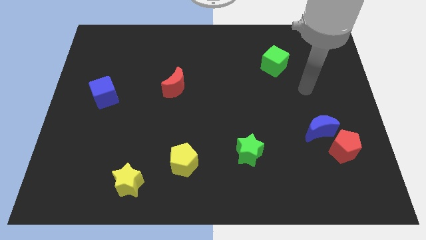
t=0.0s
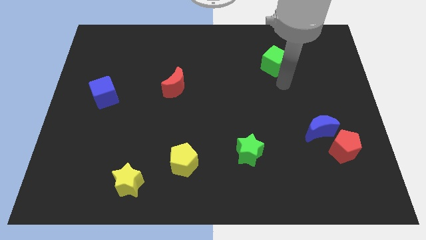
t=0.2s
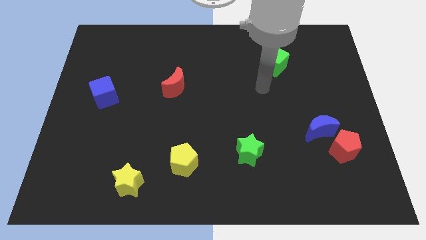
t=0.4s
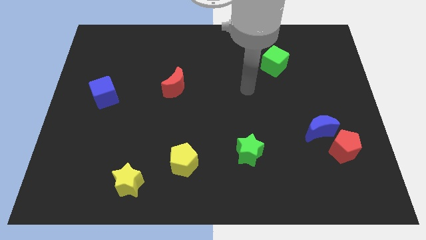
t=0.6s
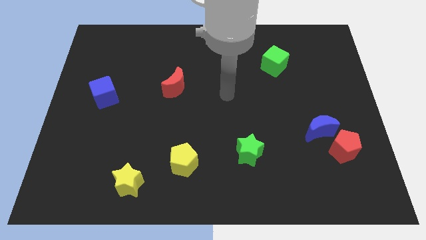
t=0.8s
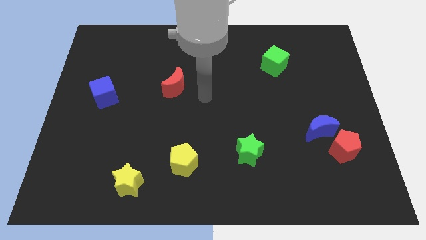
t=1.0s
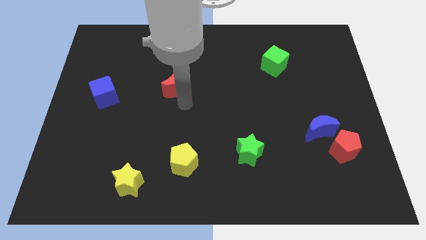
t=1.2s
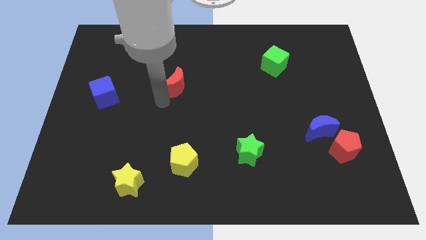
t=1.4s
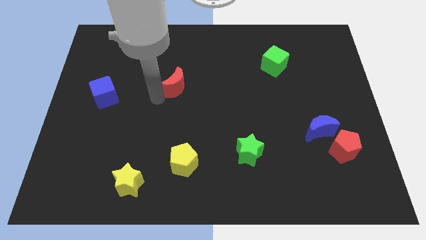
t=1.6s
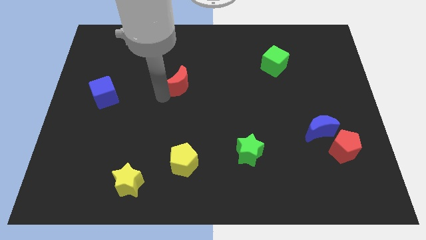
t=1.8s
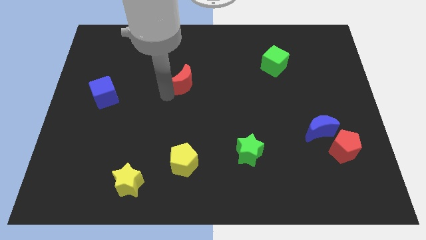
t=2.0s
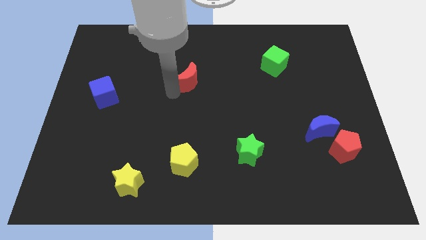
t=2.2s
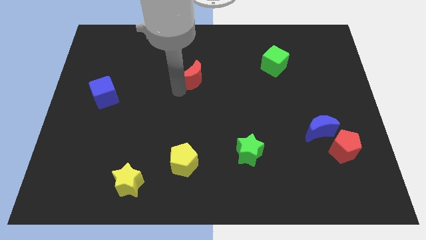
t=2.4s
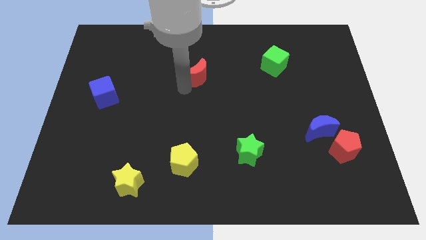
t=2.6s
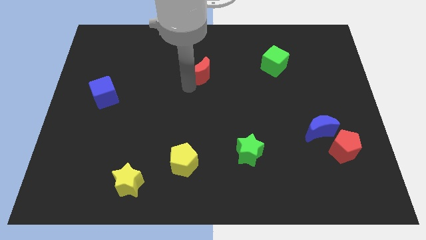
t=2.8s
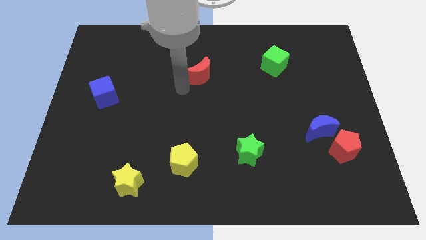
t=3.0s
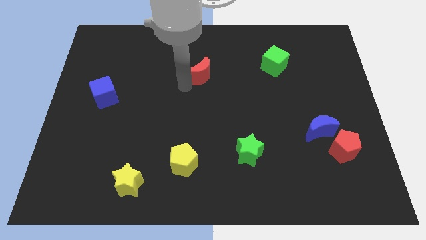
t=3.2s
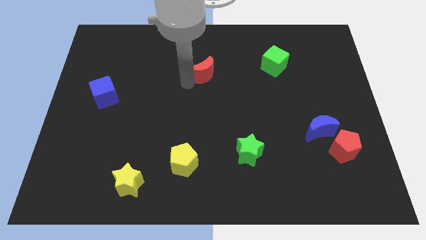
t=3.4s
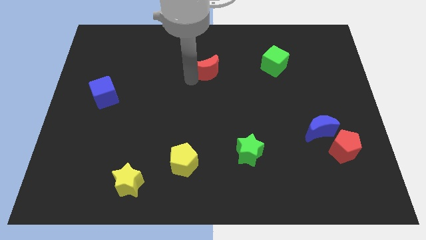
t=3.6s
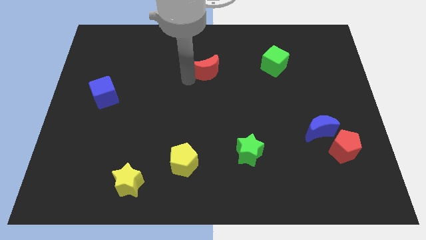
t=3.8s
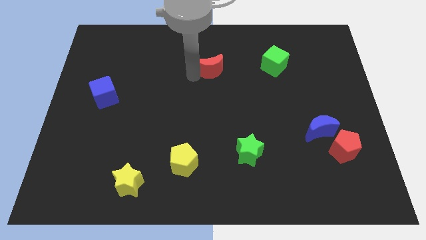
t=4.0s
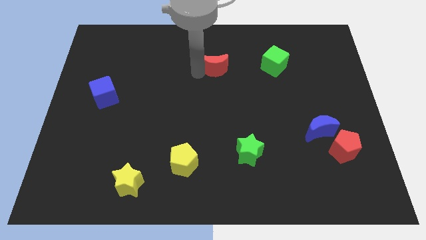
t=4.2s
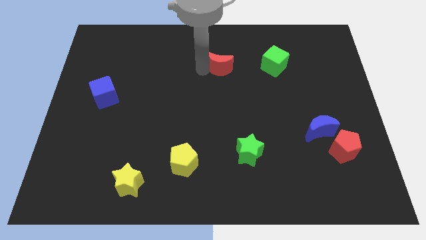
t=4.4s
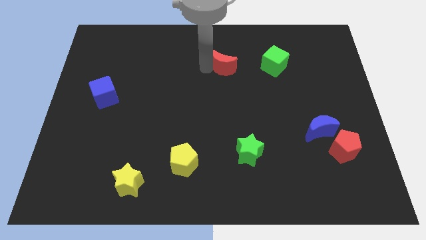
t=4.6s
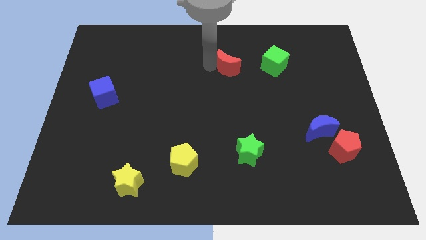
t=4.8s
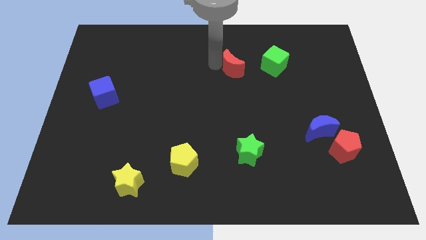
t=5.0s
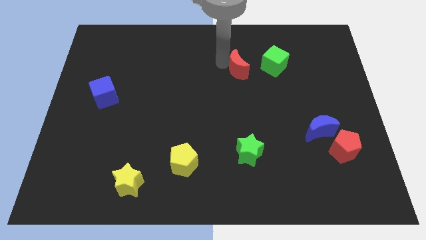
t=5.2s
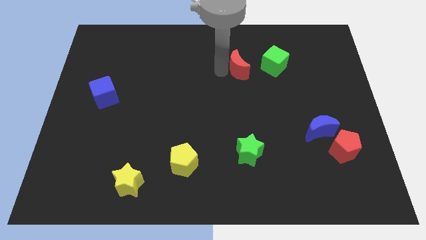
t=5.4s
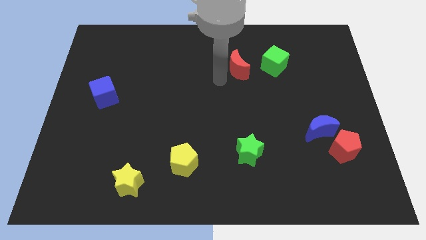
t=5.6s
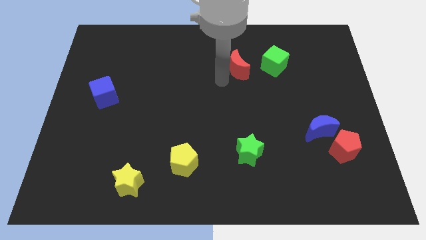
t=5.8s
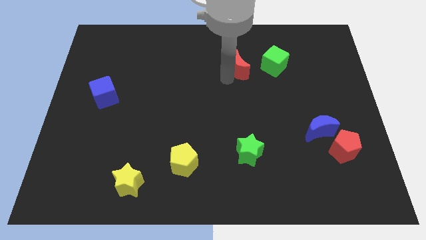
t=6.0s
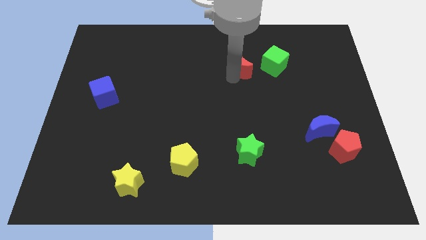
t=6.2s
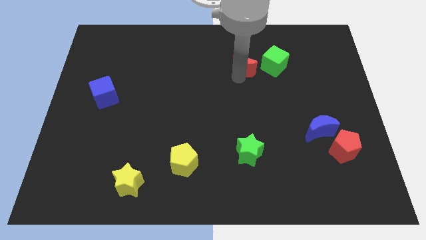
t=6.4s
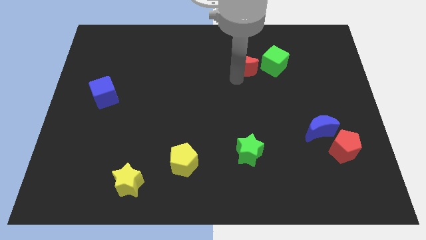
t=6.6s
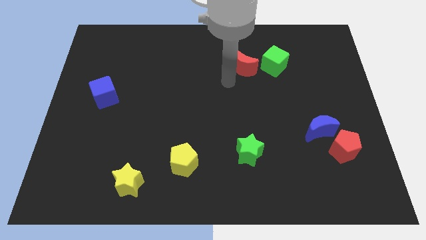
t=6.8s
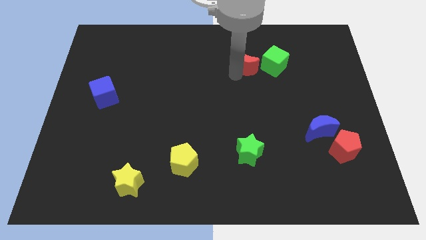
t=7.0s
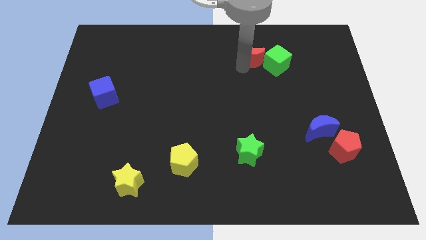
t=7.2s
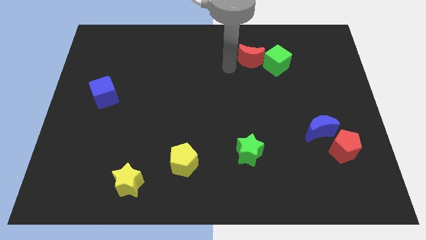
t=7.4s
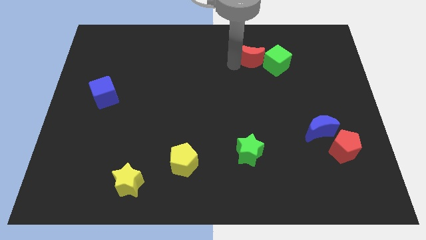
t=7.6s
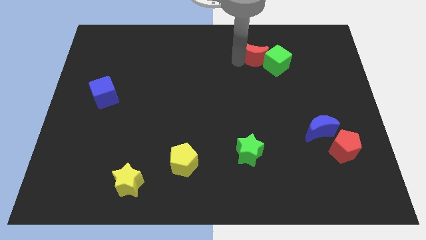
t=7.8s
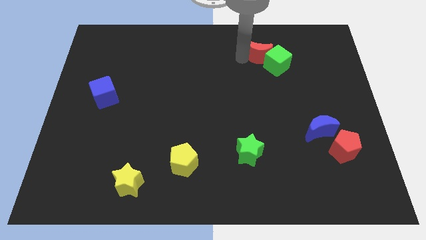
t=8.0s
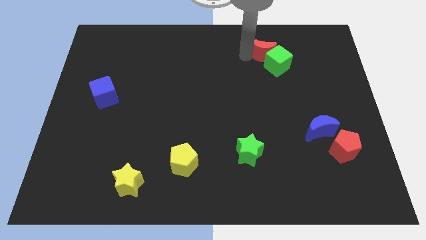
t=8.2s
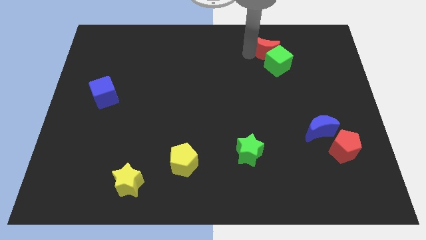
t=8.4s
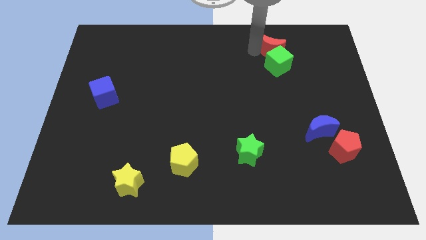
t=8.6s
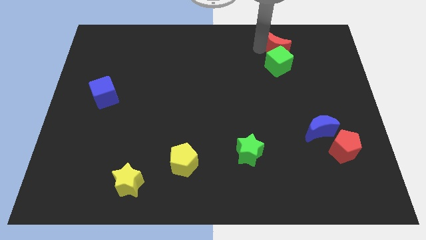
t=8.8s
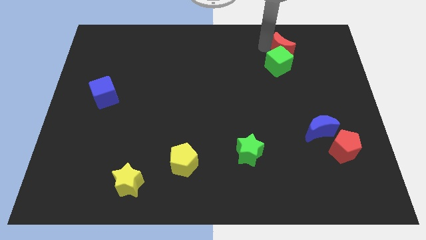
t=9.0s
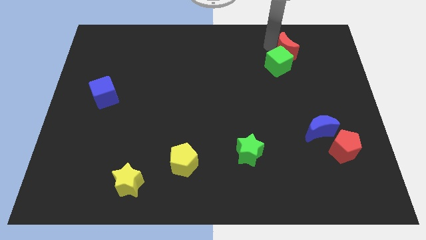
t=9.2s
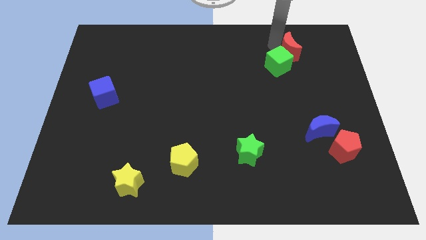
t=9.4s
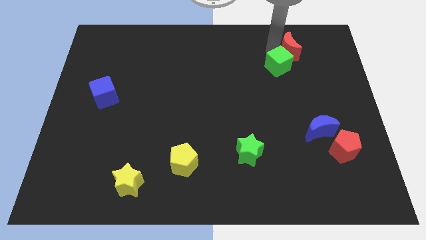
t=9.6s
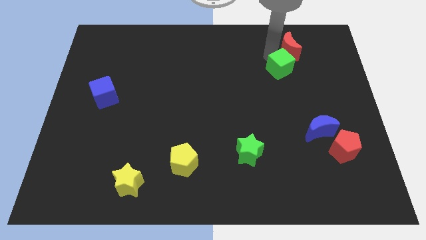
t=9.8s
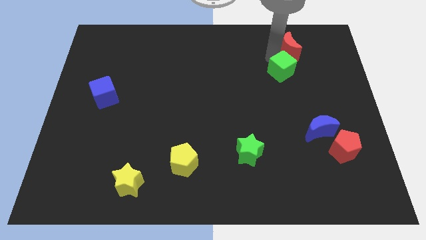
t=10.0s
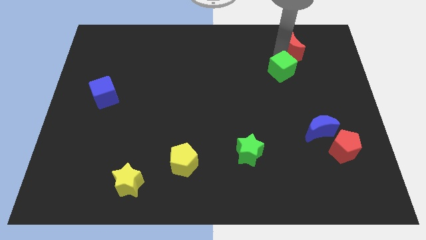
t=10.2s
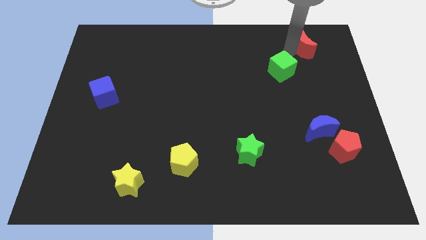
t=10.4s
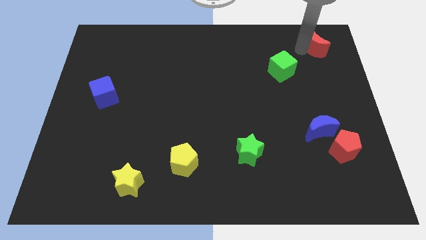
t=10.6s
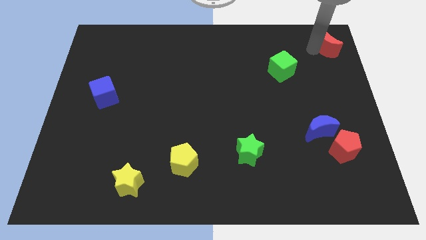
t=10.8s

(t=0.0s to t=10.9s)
push the red moon to the top right corner

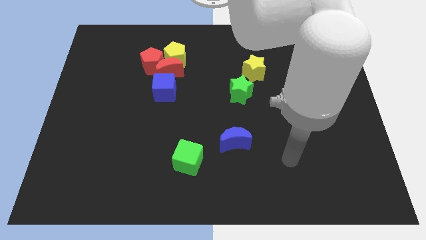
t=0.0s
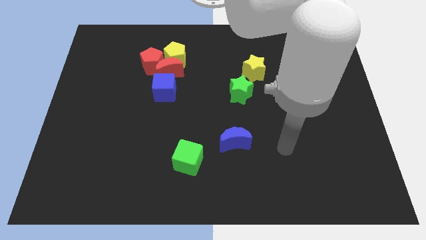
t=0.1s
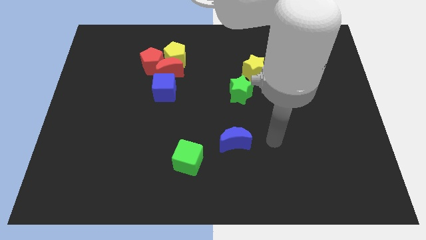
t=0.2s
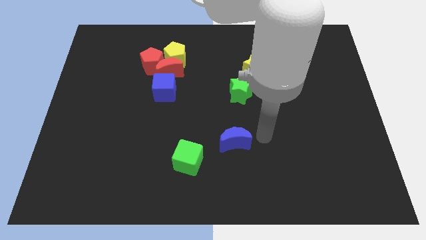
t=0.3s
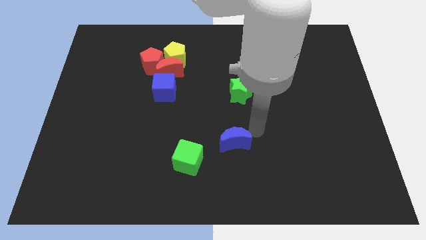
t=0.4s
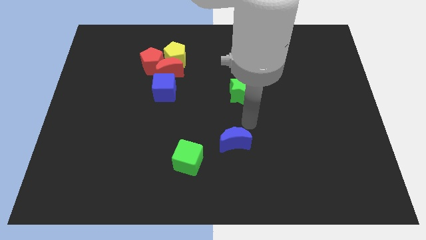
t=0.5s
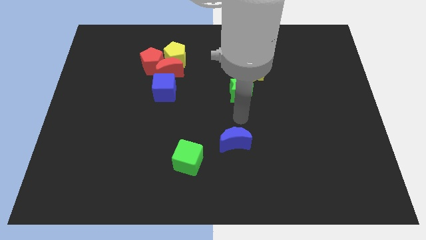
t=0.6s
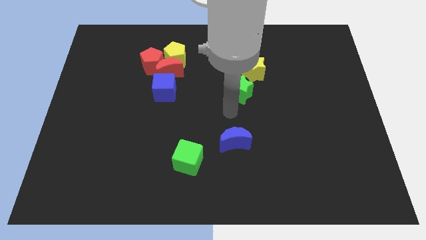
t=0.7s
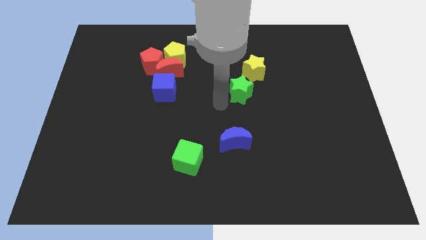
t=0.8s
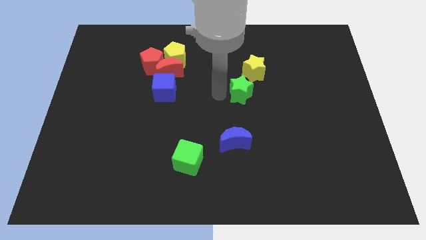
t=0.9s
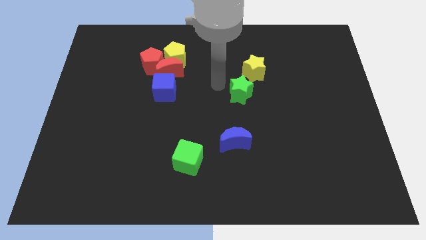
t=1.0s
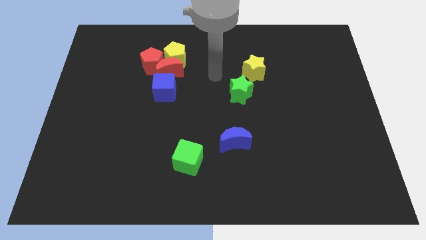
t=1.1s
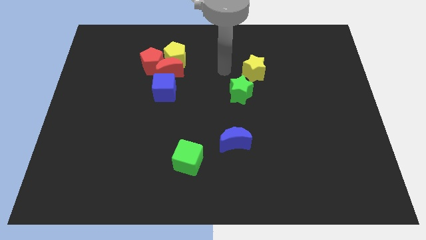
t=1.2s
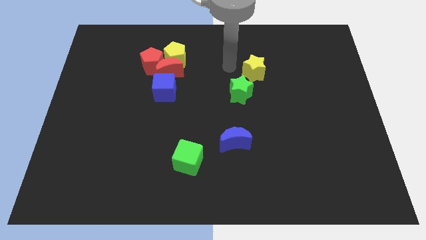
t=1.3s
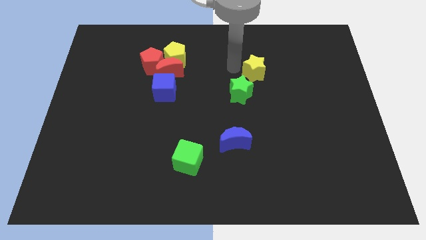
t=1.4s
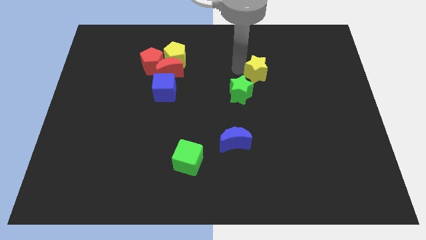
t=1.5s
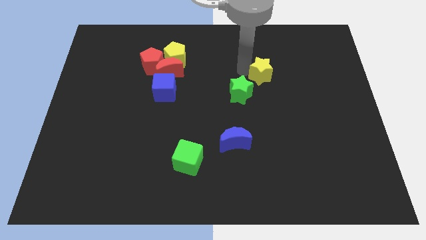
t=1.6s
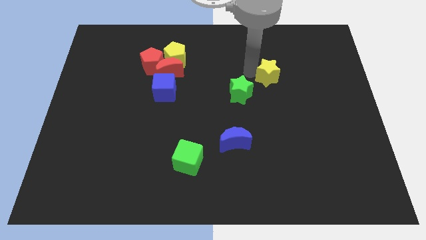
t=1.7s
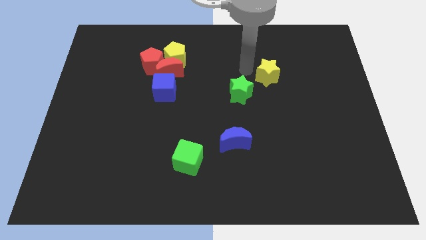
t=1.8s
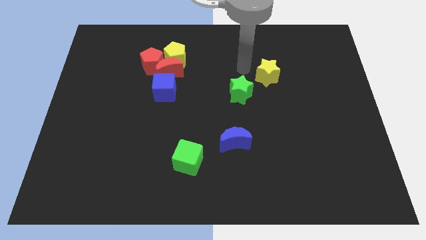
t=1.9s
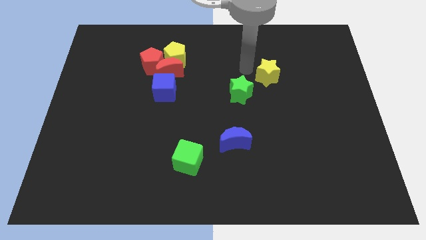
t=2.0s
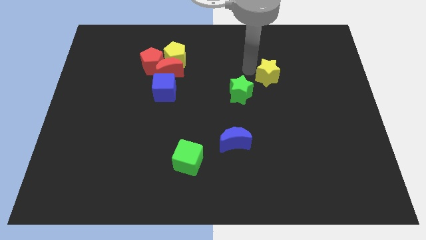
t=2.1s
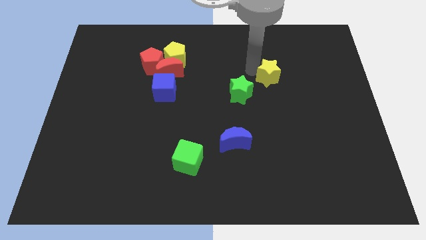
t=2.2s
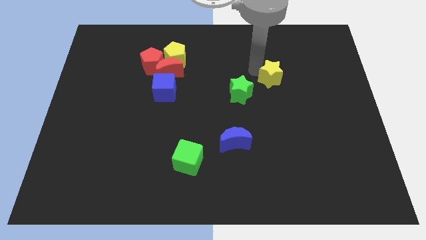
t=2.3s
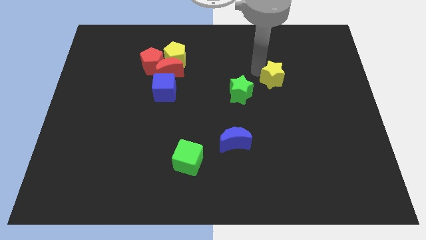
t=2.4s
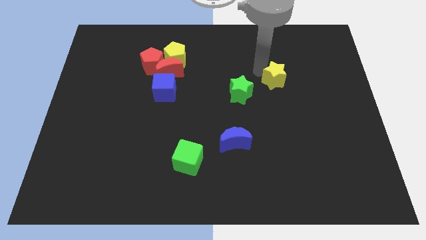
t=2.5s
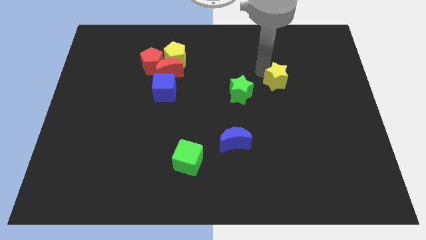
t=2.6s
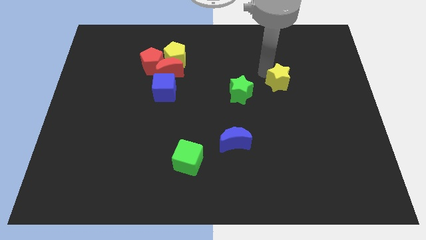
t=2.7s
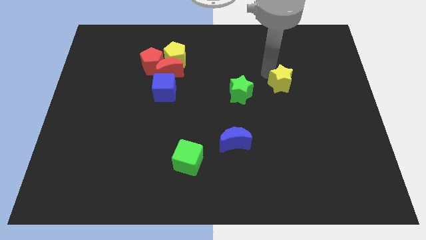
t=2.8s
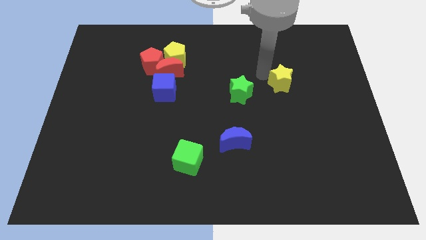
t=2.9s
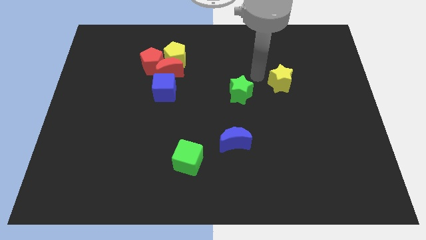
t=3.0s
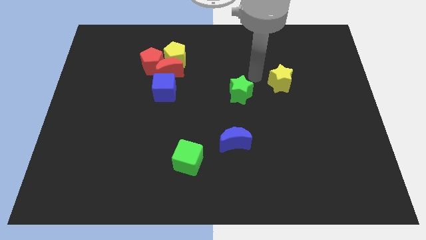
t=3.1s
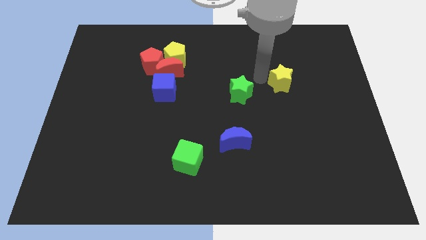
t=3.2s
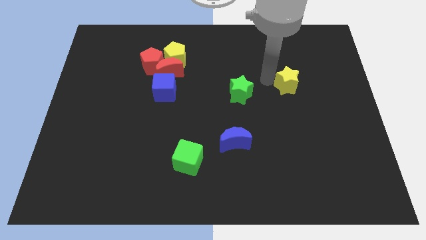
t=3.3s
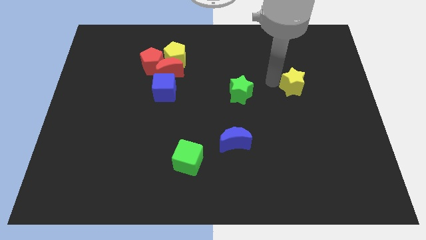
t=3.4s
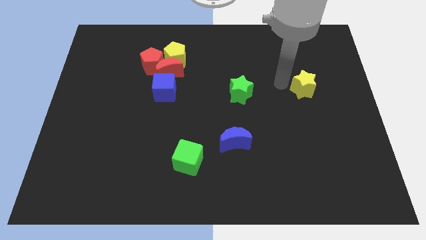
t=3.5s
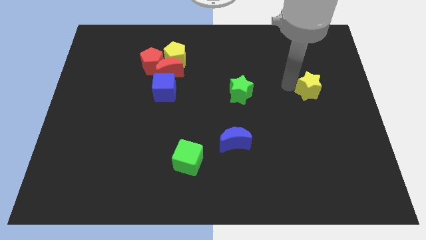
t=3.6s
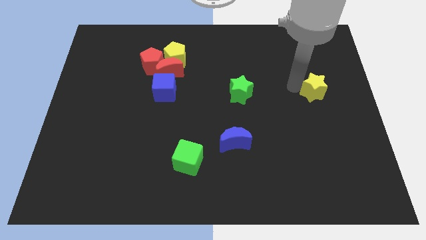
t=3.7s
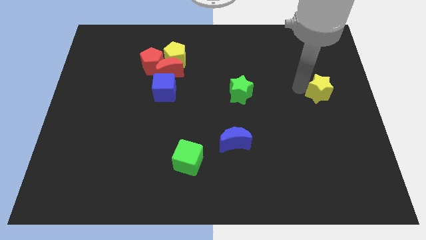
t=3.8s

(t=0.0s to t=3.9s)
push the yellow star to the right side
